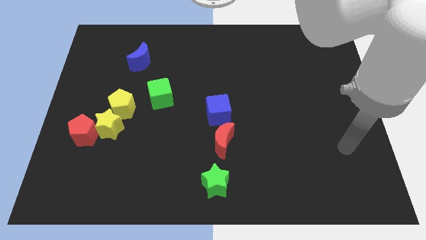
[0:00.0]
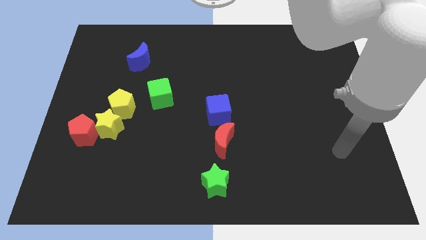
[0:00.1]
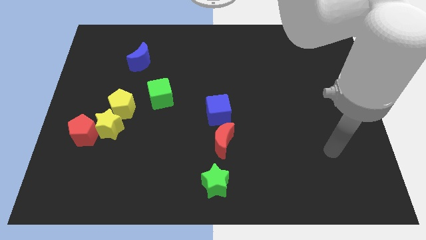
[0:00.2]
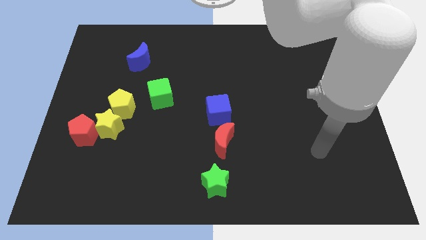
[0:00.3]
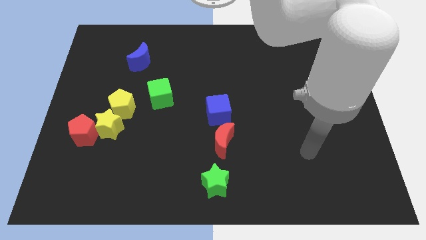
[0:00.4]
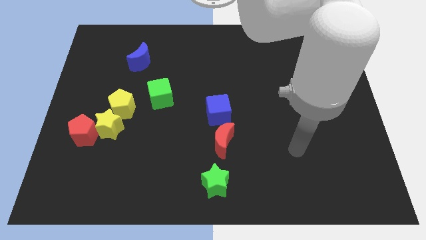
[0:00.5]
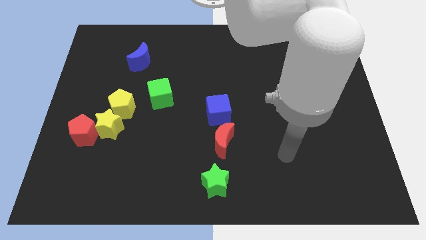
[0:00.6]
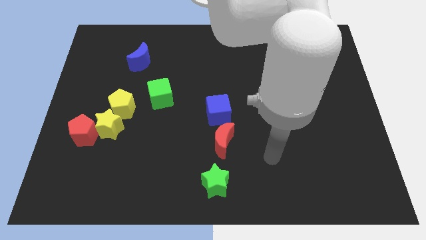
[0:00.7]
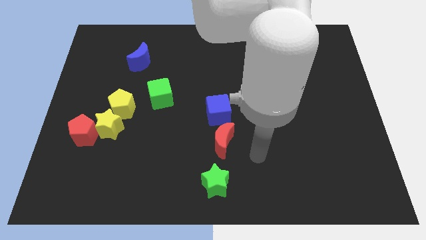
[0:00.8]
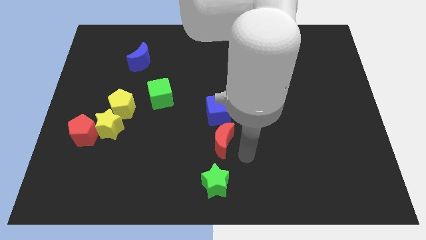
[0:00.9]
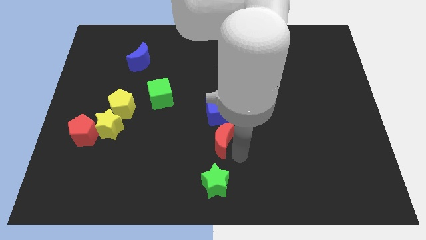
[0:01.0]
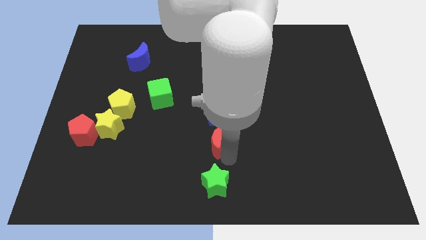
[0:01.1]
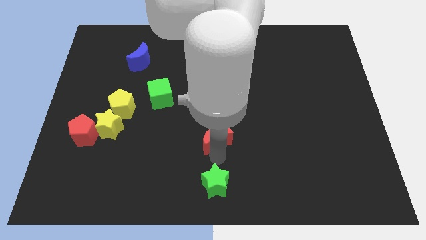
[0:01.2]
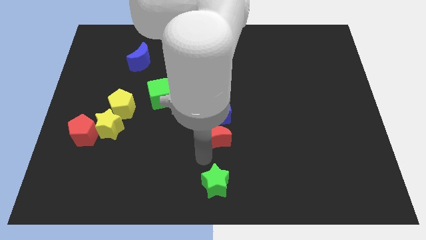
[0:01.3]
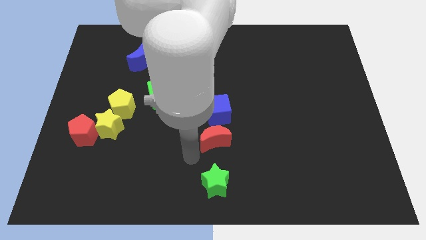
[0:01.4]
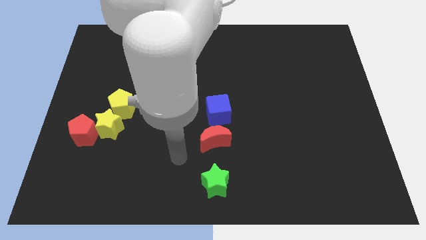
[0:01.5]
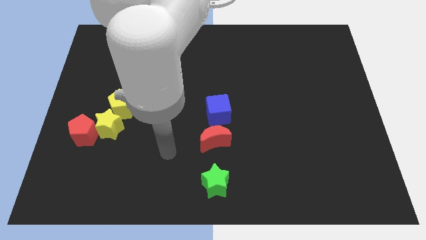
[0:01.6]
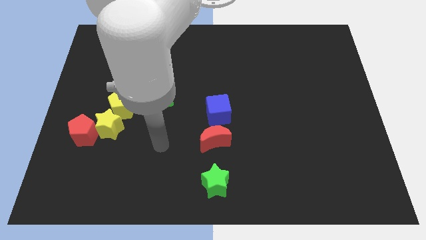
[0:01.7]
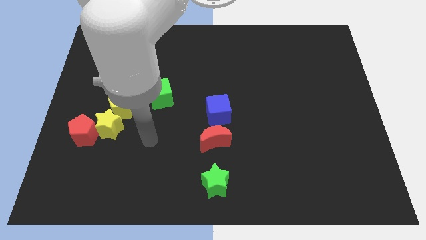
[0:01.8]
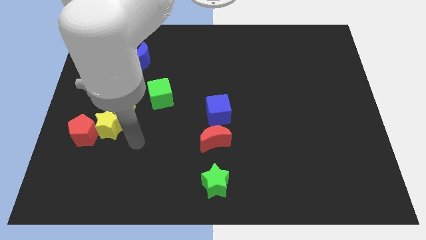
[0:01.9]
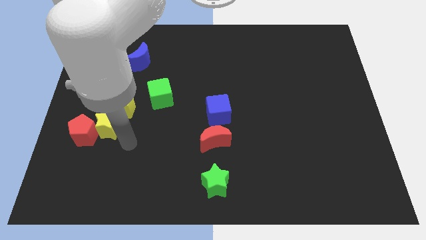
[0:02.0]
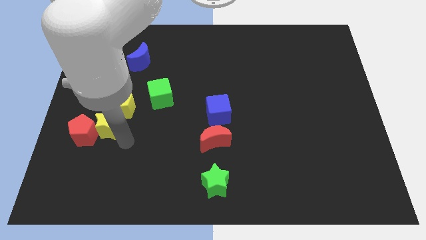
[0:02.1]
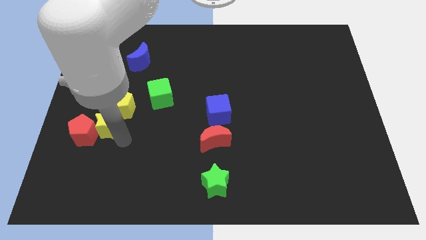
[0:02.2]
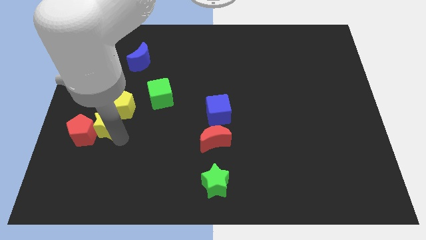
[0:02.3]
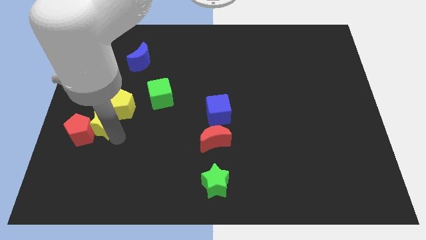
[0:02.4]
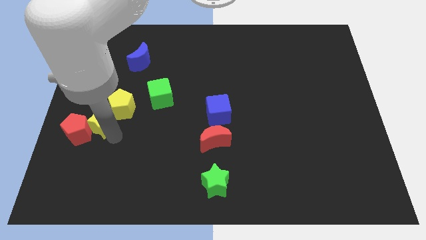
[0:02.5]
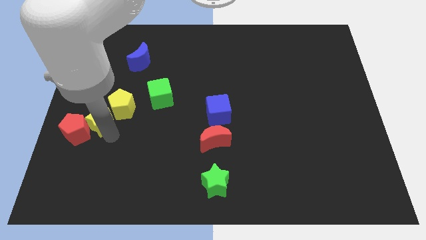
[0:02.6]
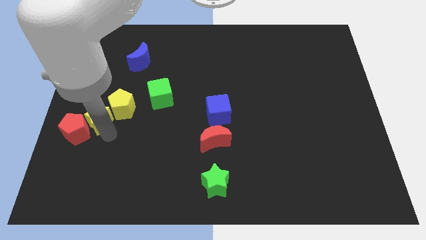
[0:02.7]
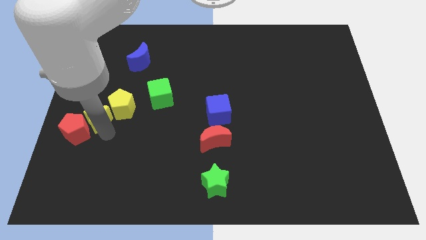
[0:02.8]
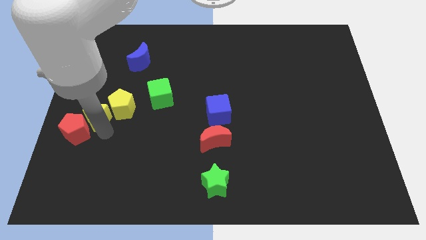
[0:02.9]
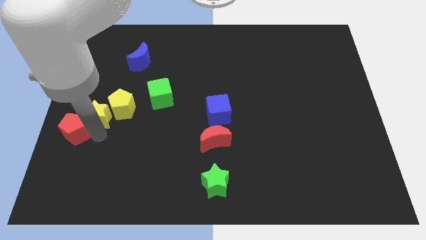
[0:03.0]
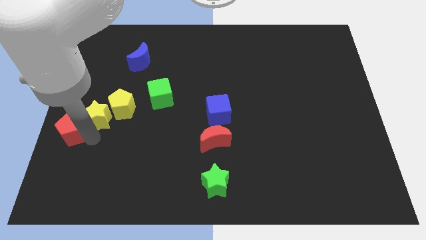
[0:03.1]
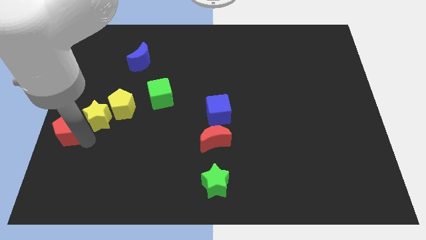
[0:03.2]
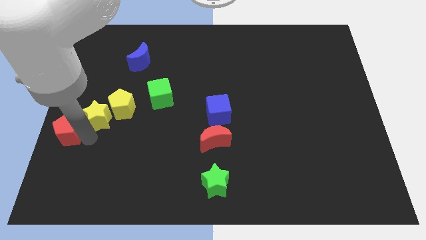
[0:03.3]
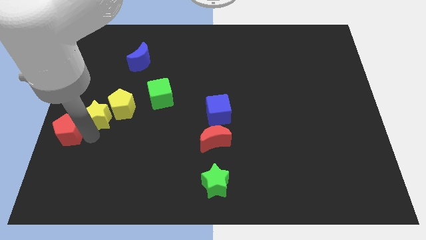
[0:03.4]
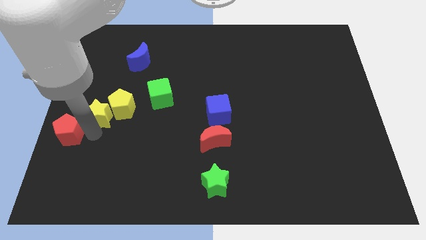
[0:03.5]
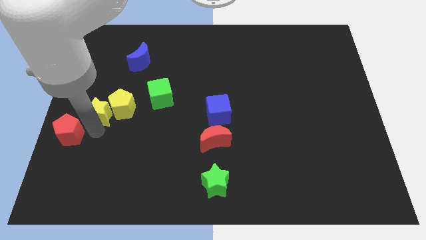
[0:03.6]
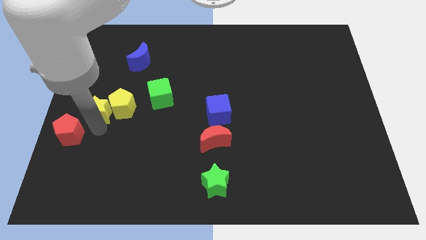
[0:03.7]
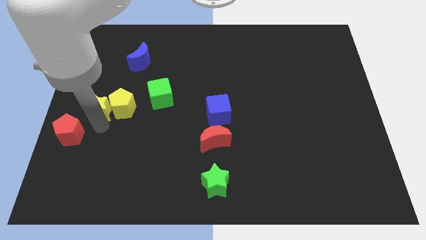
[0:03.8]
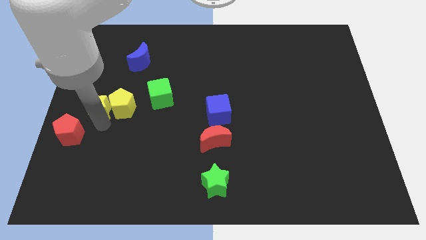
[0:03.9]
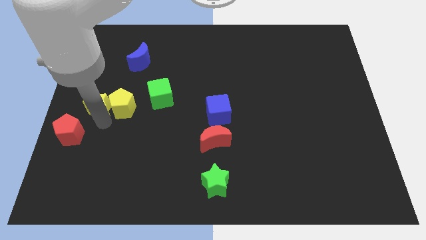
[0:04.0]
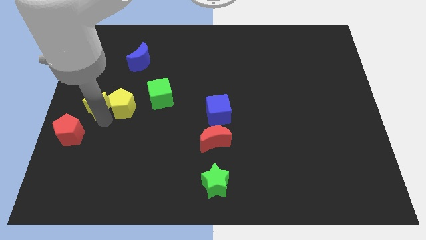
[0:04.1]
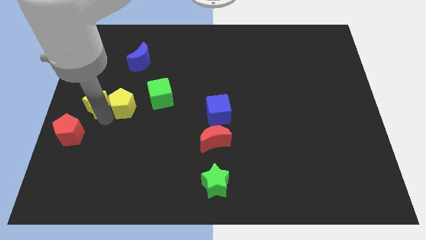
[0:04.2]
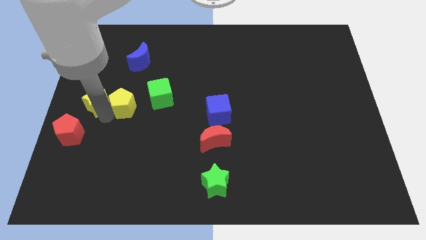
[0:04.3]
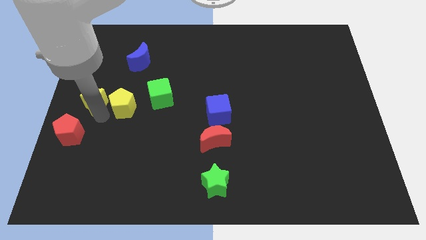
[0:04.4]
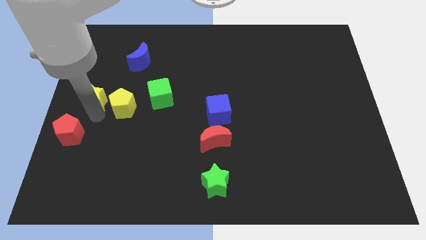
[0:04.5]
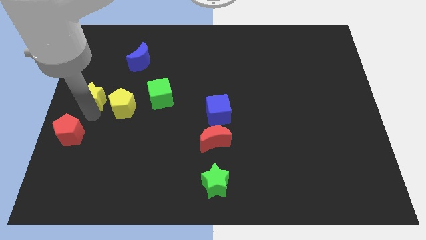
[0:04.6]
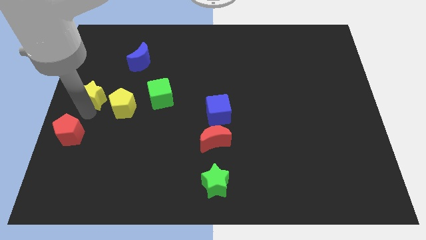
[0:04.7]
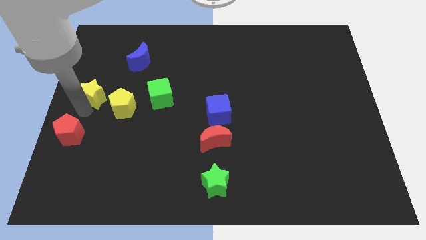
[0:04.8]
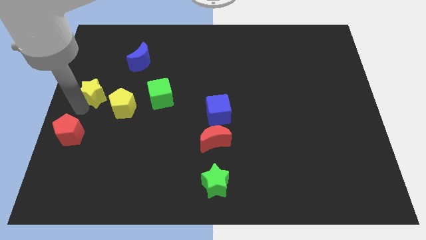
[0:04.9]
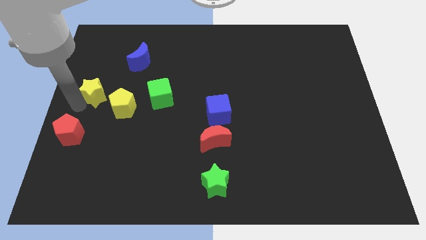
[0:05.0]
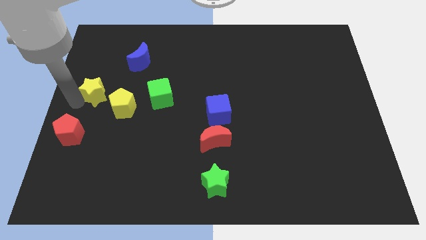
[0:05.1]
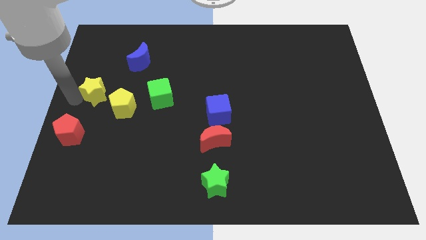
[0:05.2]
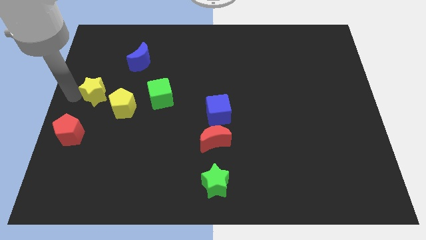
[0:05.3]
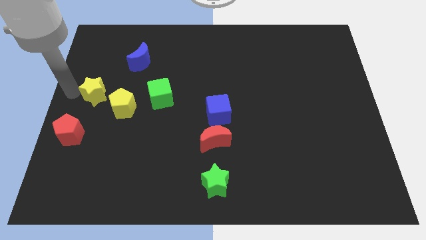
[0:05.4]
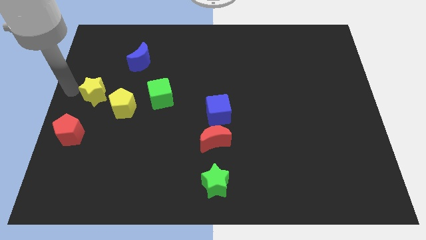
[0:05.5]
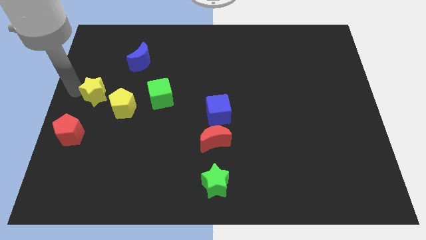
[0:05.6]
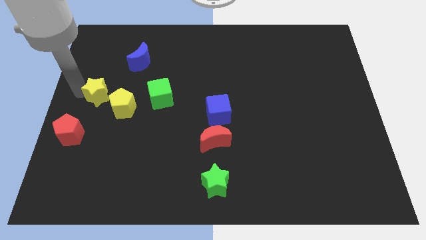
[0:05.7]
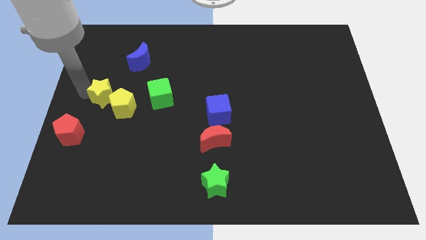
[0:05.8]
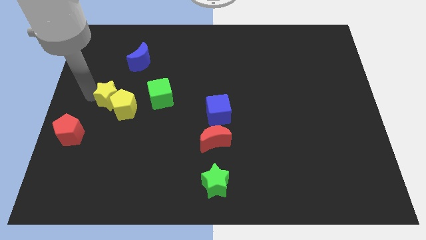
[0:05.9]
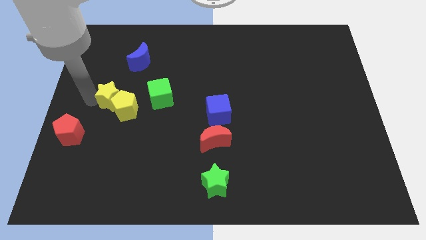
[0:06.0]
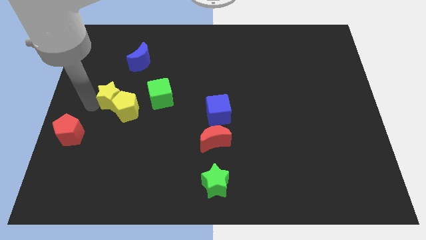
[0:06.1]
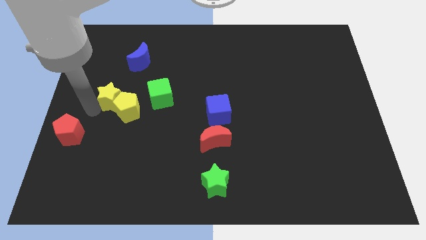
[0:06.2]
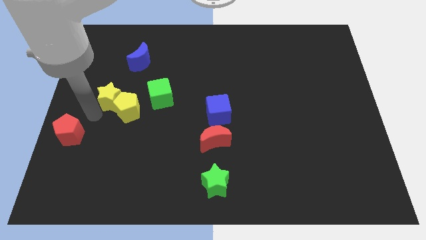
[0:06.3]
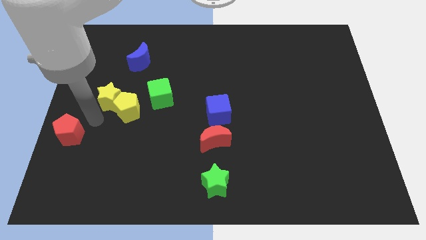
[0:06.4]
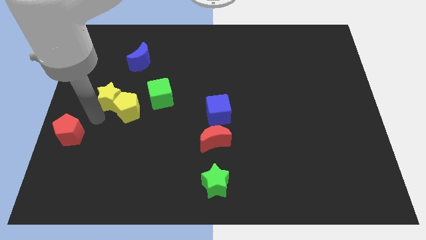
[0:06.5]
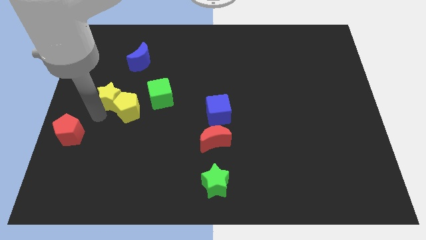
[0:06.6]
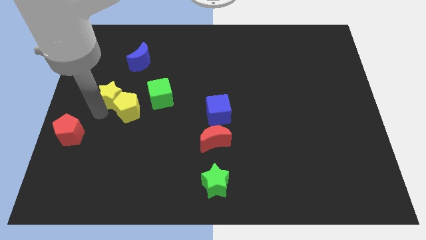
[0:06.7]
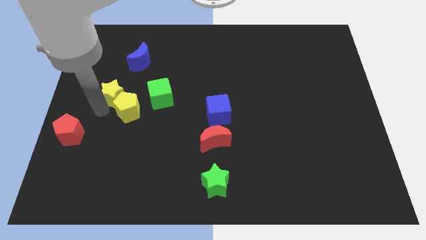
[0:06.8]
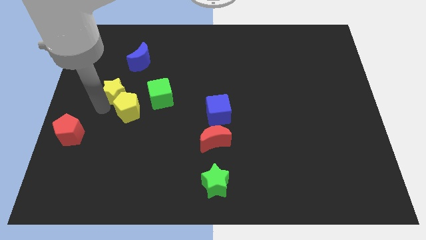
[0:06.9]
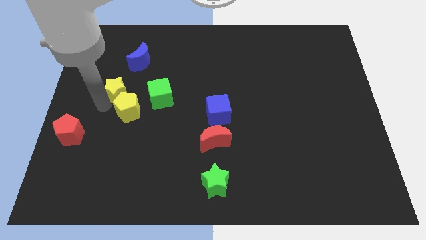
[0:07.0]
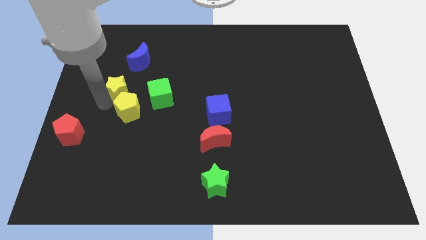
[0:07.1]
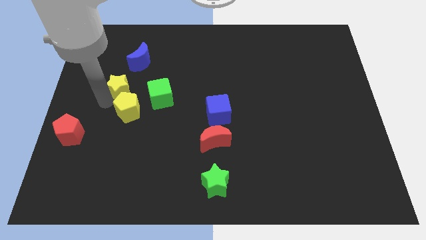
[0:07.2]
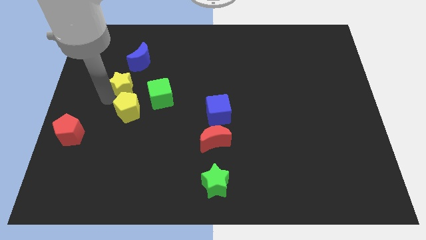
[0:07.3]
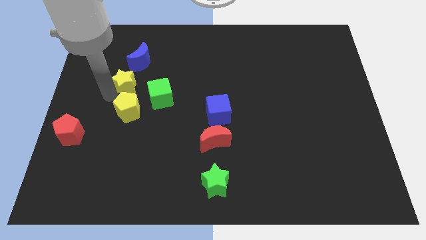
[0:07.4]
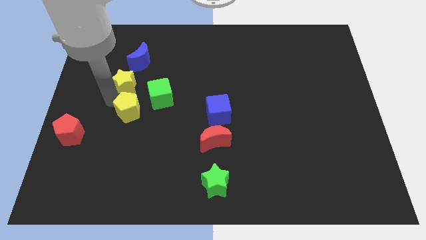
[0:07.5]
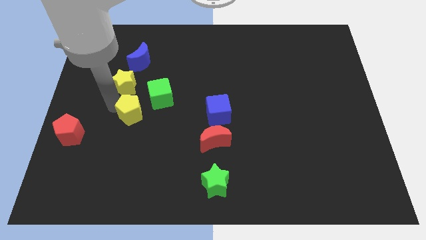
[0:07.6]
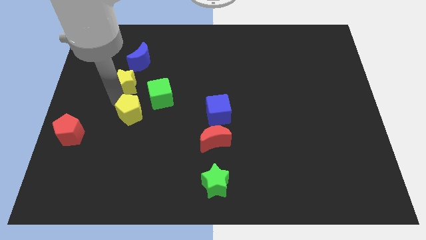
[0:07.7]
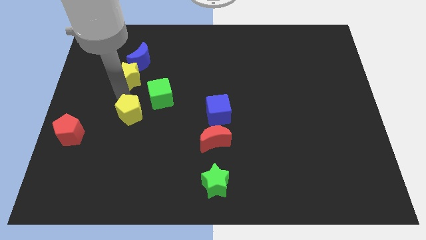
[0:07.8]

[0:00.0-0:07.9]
put the yellow star to the blue moon
